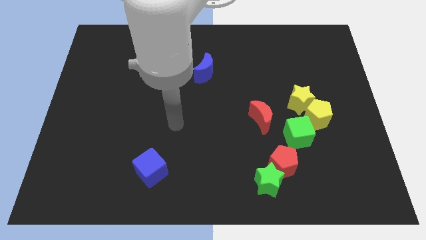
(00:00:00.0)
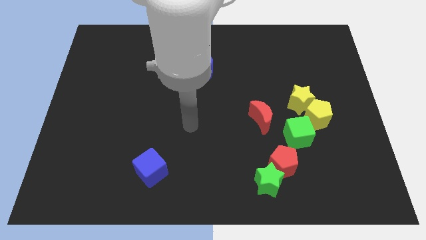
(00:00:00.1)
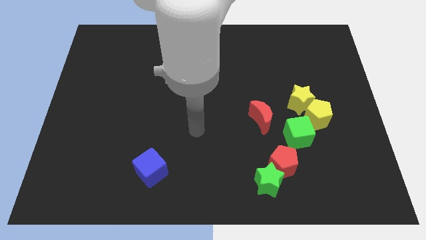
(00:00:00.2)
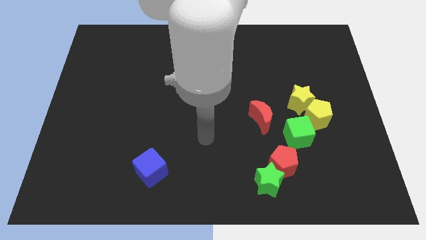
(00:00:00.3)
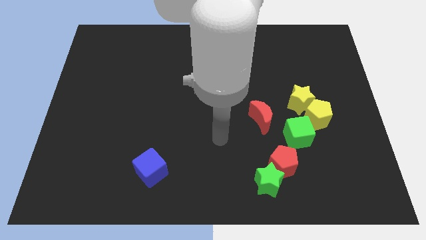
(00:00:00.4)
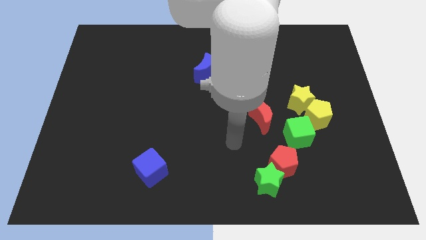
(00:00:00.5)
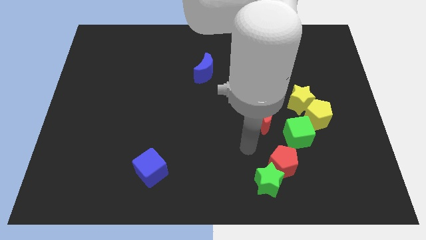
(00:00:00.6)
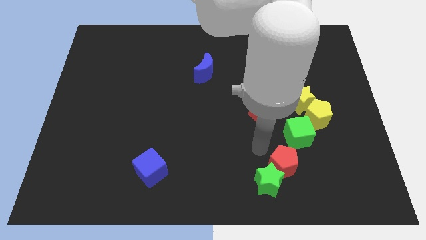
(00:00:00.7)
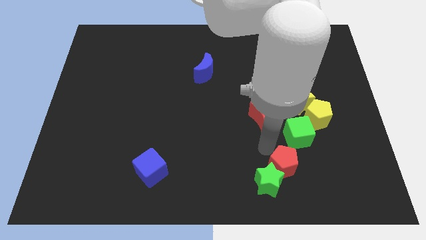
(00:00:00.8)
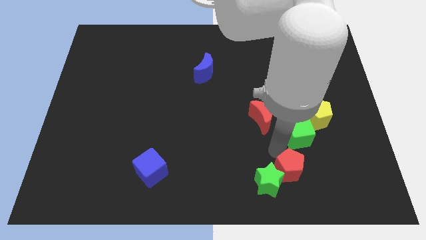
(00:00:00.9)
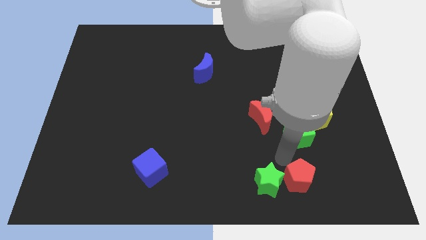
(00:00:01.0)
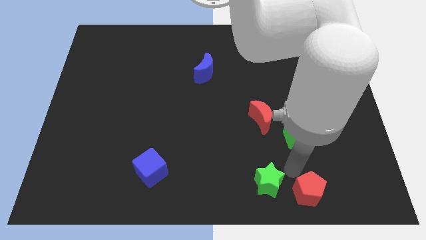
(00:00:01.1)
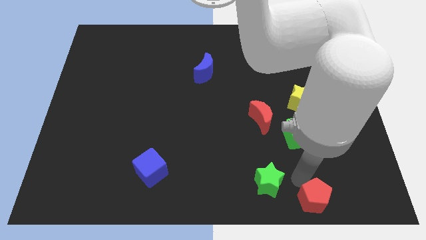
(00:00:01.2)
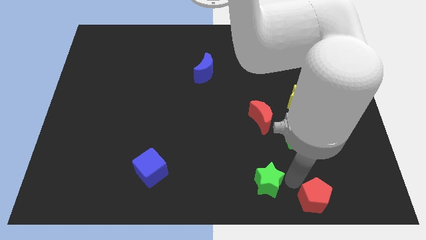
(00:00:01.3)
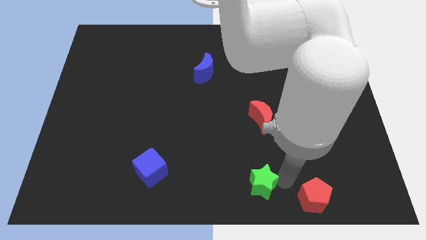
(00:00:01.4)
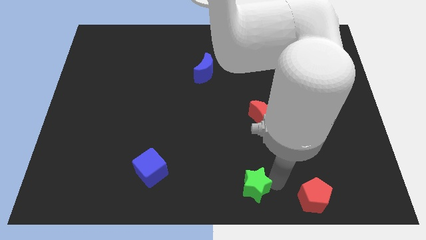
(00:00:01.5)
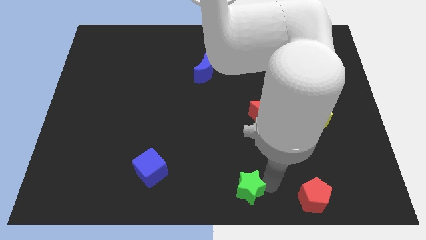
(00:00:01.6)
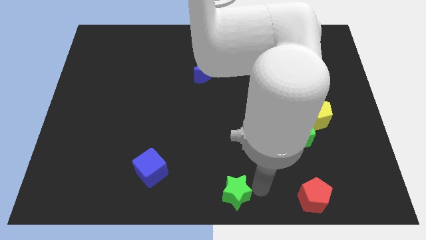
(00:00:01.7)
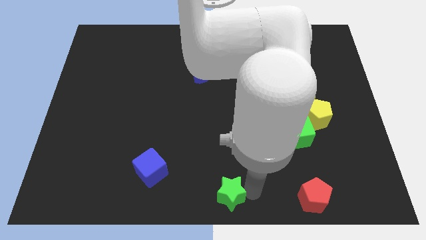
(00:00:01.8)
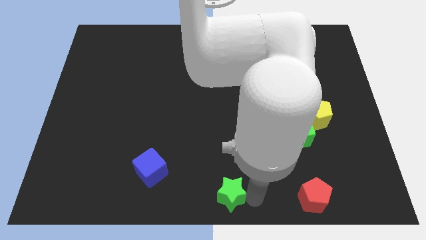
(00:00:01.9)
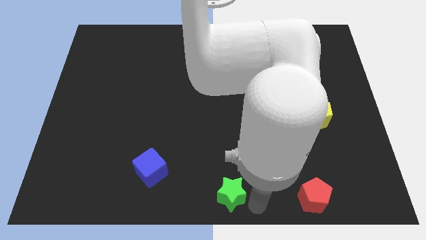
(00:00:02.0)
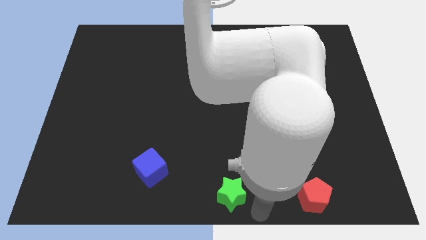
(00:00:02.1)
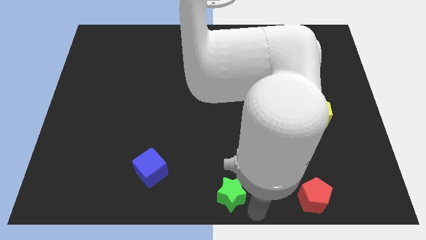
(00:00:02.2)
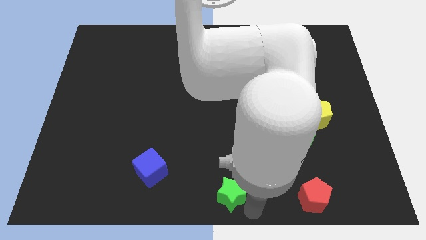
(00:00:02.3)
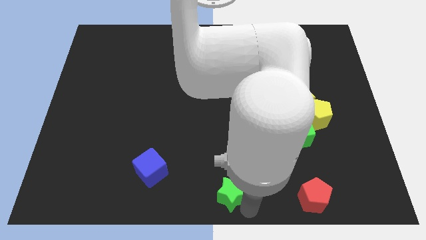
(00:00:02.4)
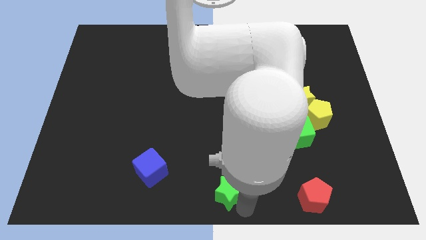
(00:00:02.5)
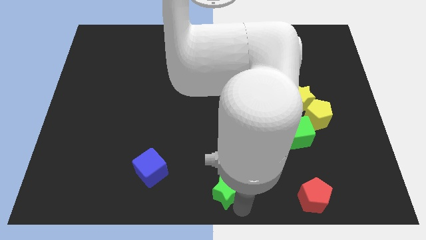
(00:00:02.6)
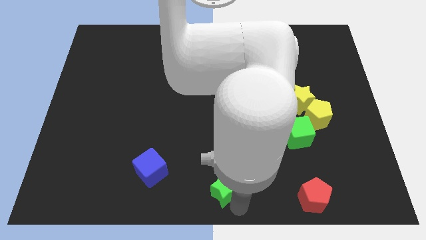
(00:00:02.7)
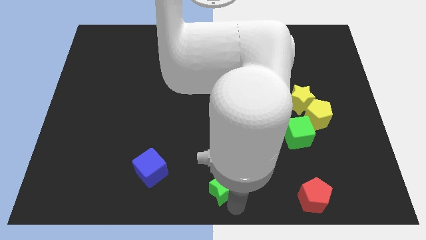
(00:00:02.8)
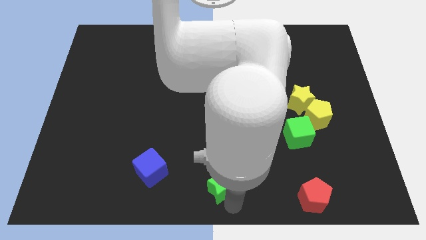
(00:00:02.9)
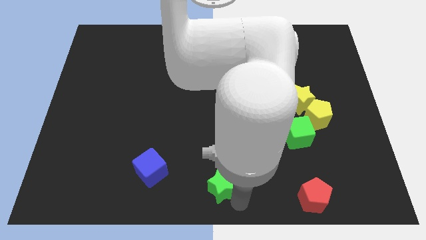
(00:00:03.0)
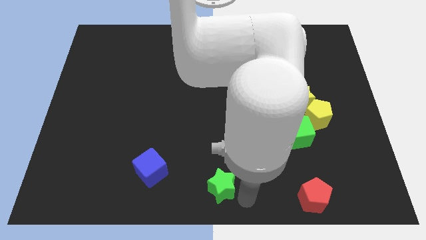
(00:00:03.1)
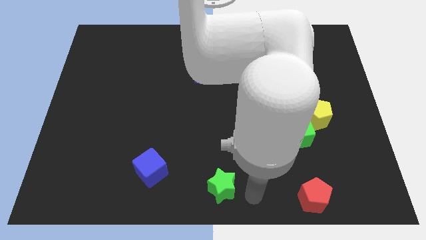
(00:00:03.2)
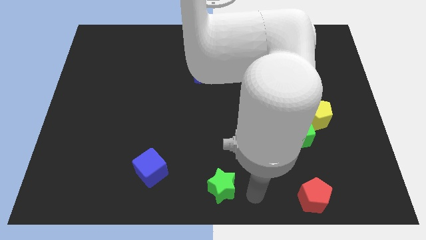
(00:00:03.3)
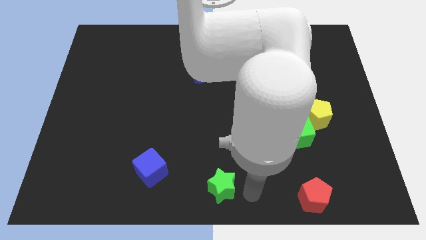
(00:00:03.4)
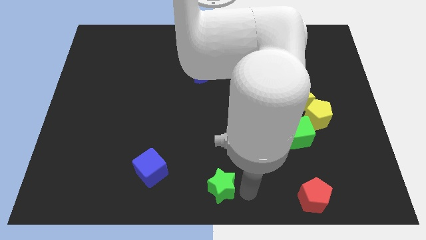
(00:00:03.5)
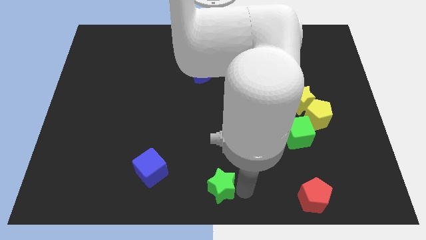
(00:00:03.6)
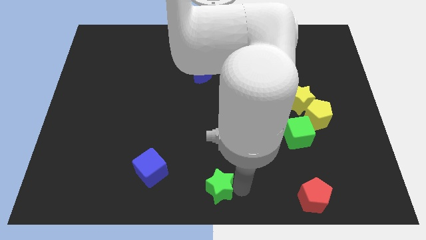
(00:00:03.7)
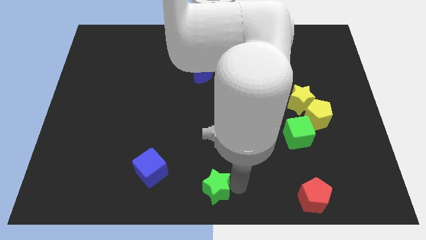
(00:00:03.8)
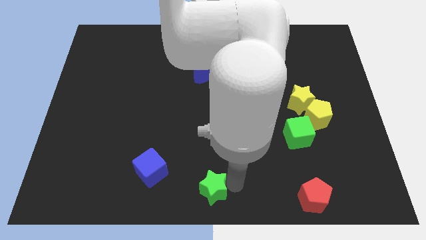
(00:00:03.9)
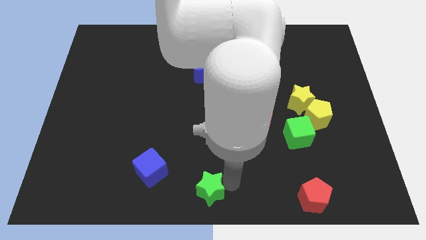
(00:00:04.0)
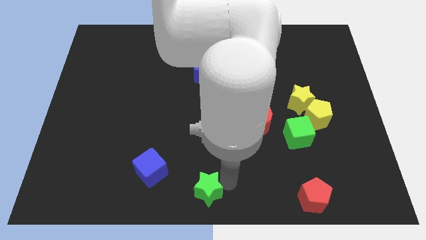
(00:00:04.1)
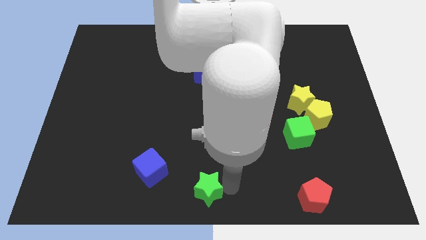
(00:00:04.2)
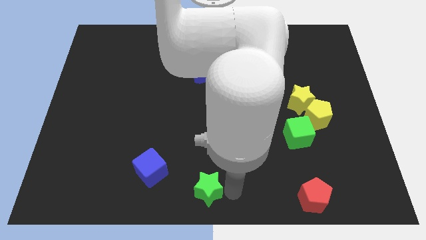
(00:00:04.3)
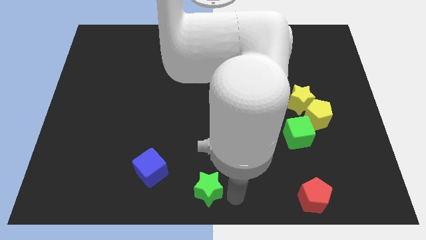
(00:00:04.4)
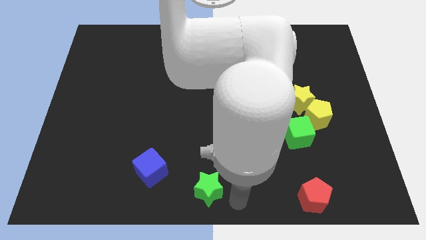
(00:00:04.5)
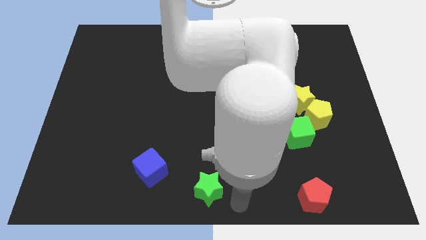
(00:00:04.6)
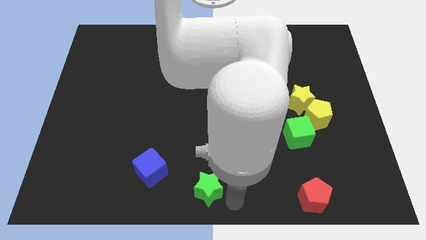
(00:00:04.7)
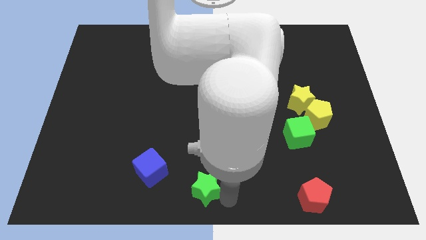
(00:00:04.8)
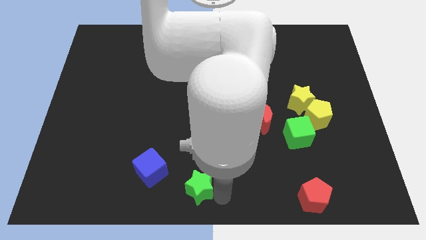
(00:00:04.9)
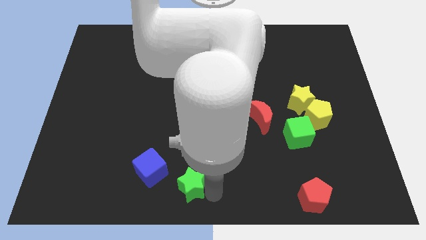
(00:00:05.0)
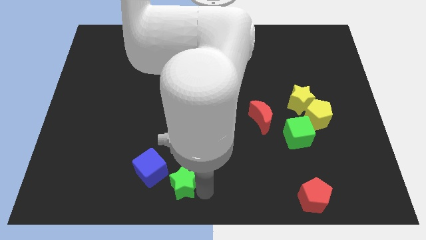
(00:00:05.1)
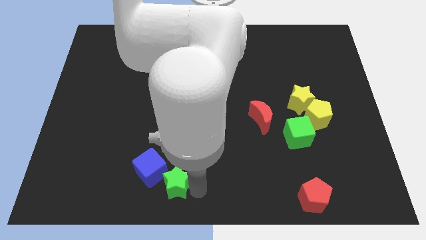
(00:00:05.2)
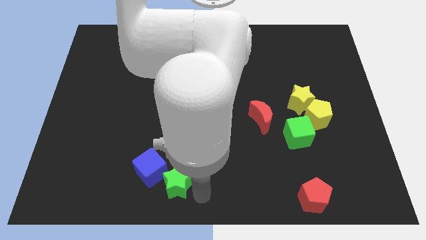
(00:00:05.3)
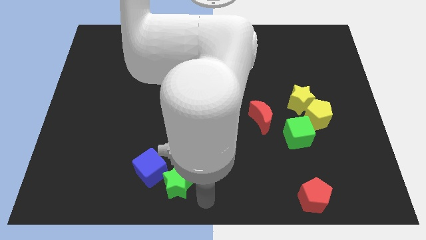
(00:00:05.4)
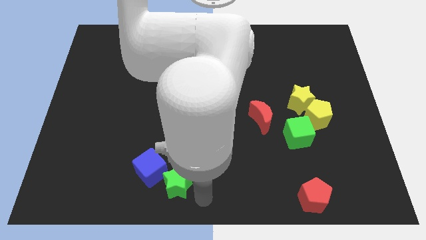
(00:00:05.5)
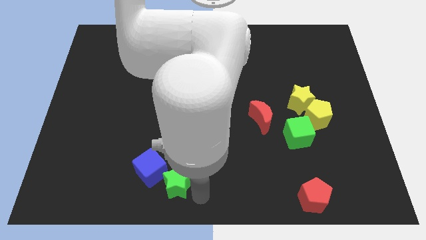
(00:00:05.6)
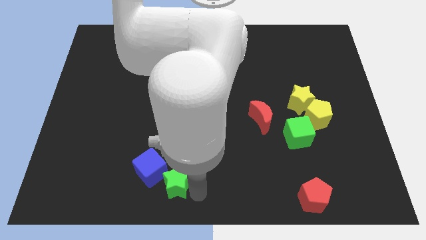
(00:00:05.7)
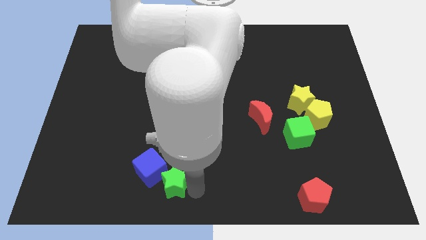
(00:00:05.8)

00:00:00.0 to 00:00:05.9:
put the green star close to the blue cube

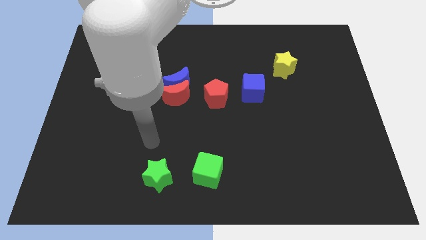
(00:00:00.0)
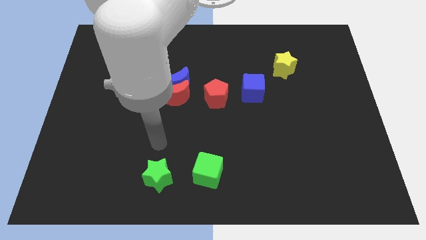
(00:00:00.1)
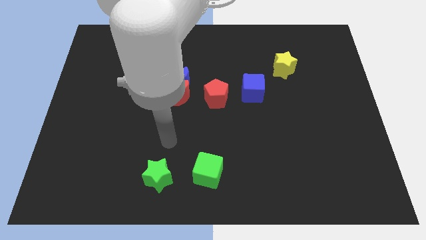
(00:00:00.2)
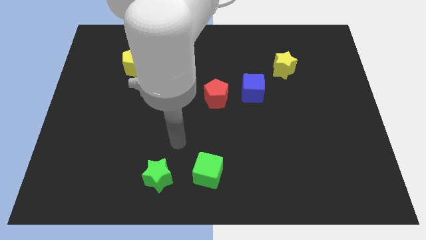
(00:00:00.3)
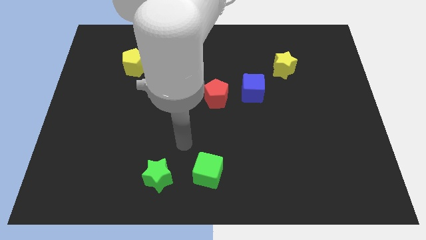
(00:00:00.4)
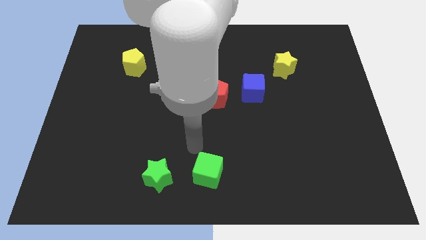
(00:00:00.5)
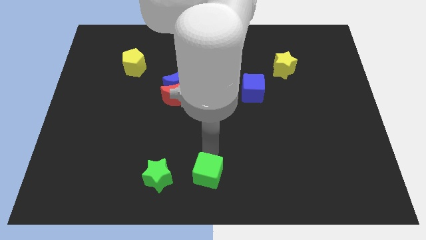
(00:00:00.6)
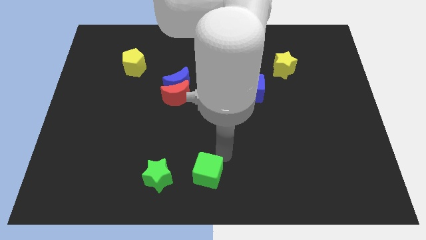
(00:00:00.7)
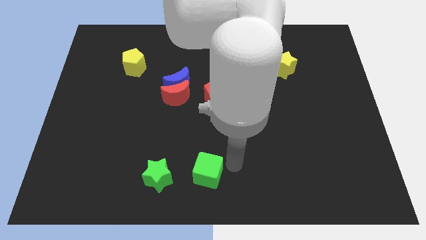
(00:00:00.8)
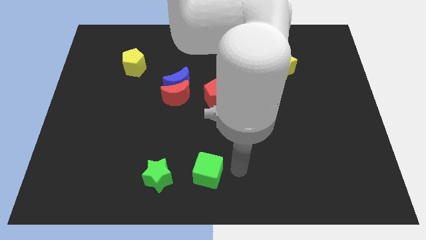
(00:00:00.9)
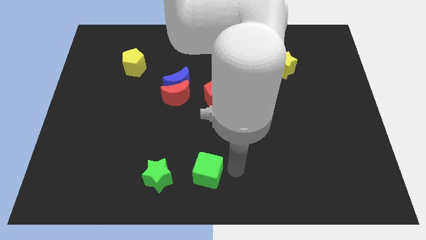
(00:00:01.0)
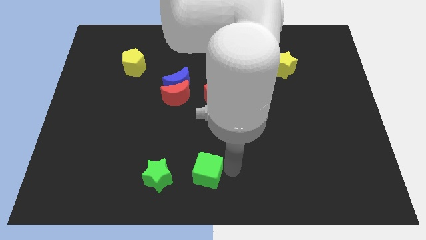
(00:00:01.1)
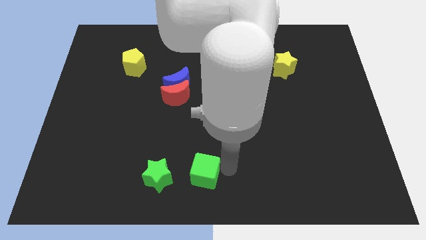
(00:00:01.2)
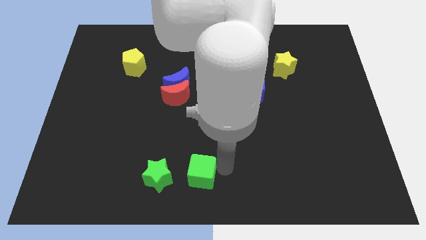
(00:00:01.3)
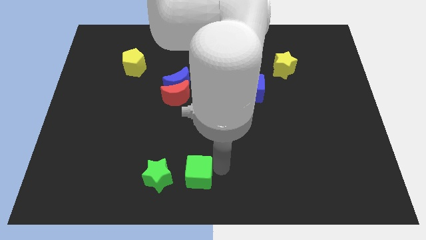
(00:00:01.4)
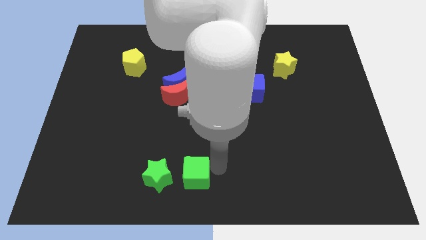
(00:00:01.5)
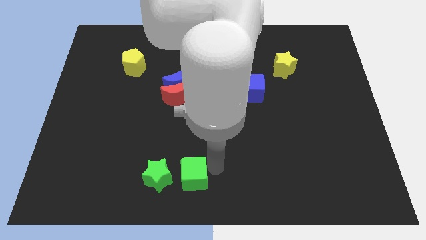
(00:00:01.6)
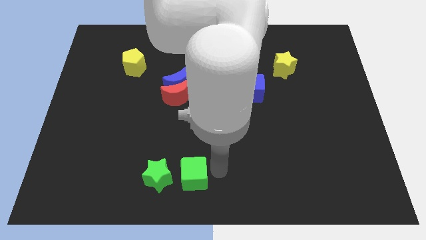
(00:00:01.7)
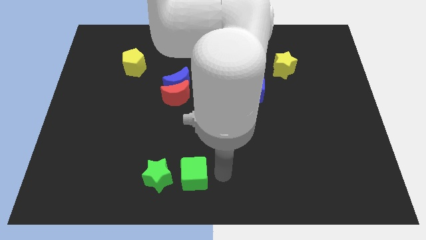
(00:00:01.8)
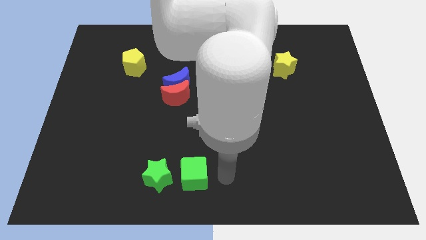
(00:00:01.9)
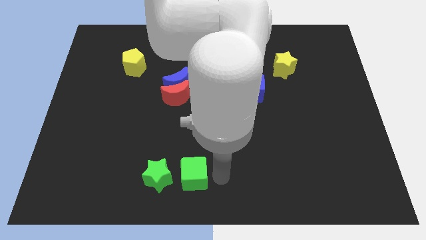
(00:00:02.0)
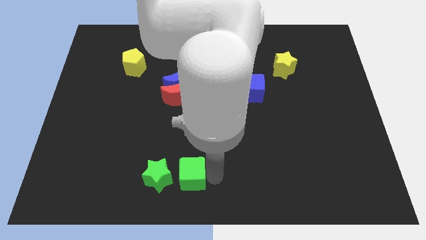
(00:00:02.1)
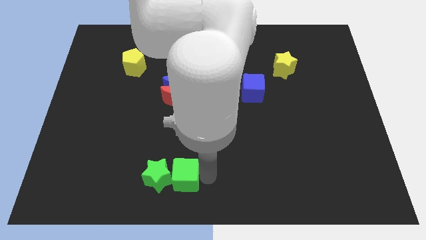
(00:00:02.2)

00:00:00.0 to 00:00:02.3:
put the green cube towards the green star
